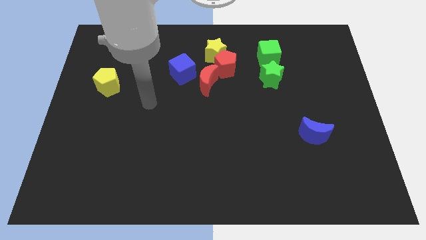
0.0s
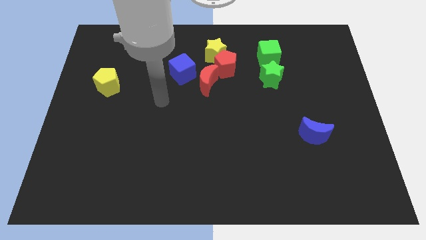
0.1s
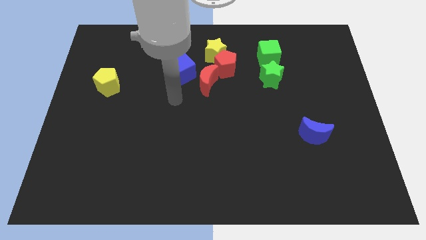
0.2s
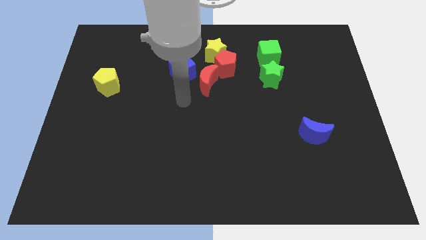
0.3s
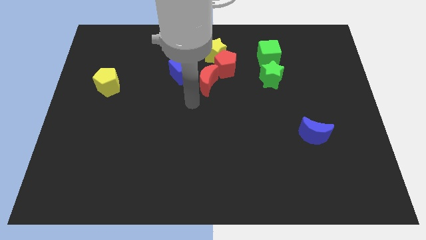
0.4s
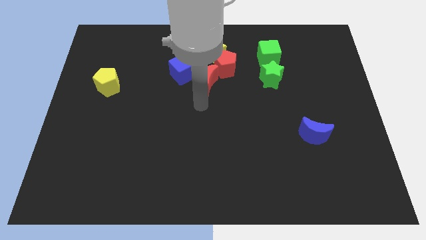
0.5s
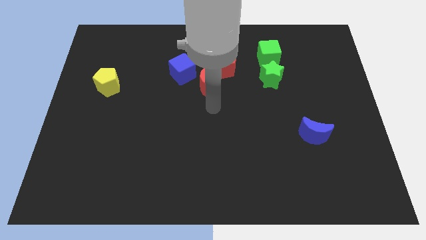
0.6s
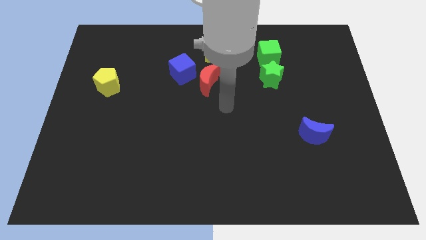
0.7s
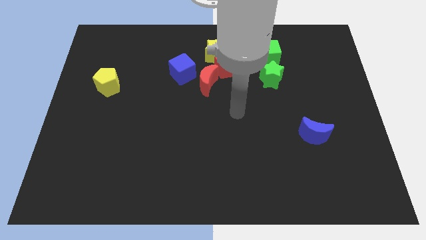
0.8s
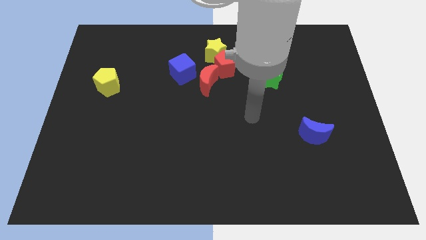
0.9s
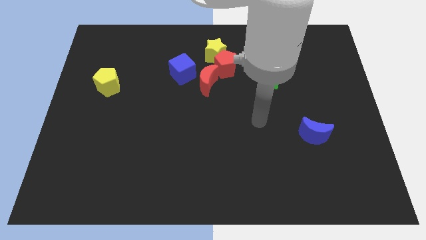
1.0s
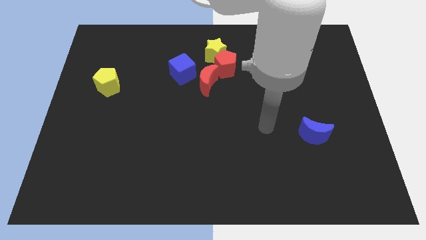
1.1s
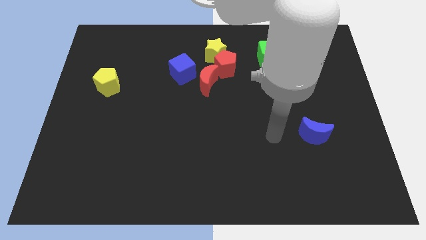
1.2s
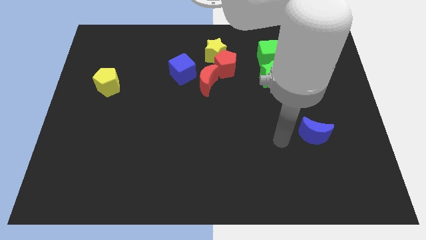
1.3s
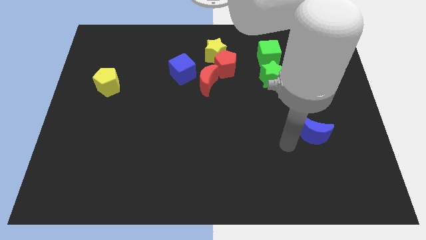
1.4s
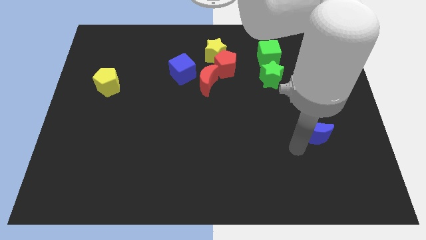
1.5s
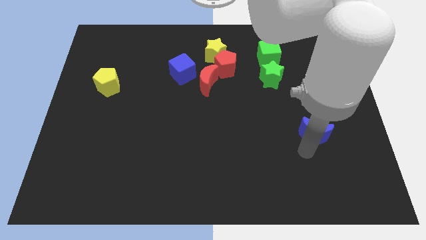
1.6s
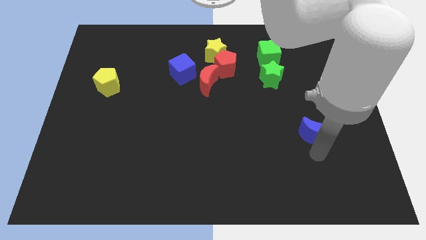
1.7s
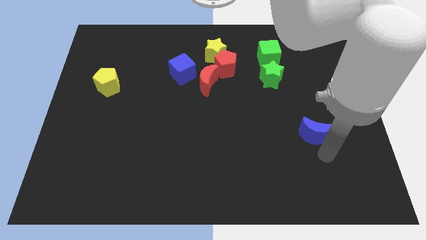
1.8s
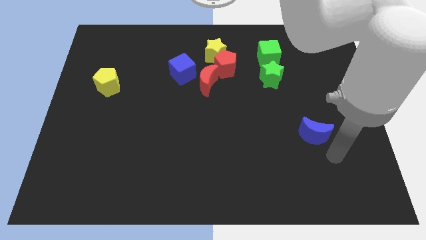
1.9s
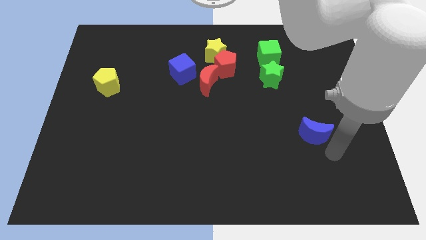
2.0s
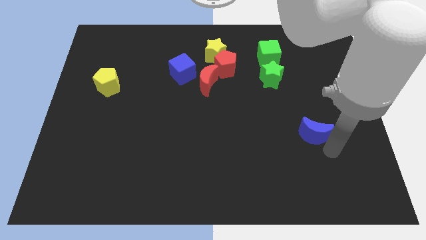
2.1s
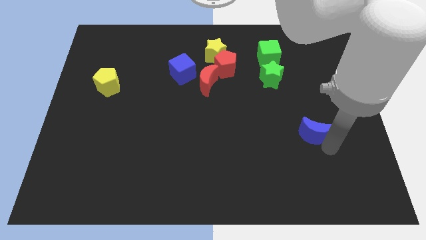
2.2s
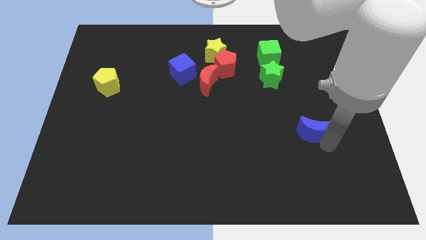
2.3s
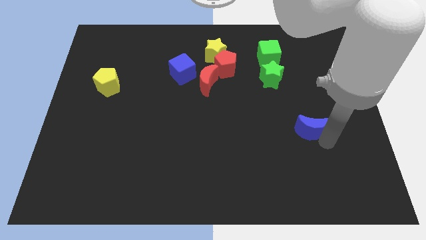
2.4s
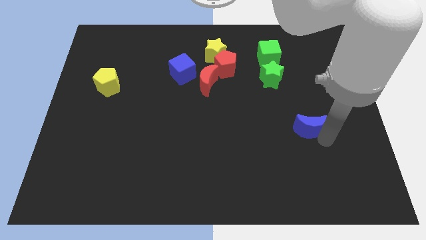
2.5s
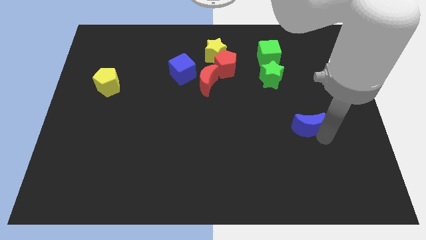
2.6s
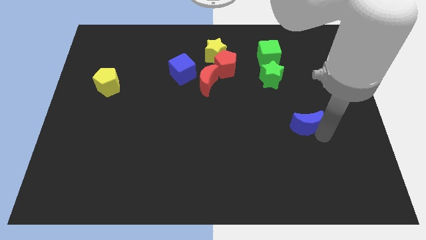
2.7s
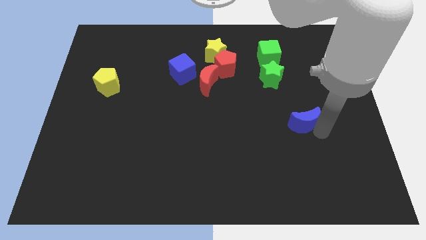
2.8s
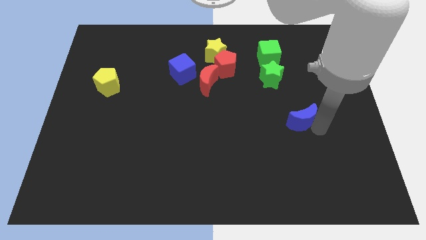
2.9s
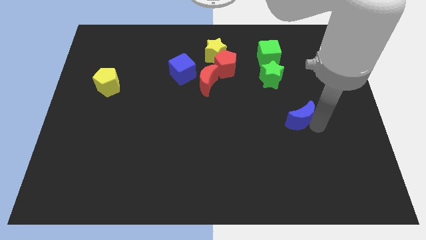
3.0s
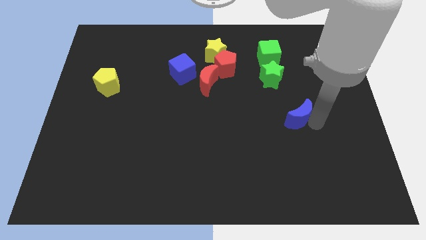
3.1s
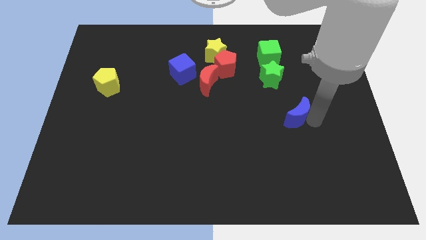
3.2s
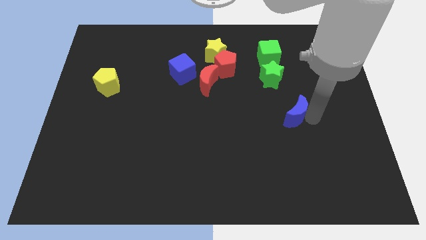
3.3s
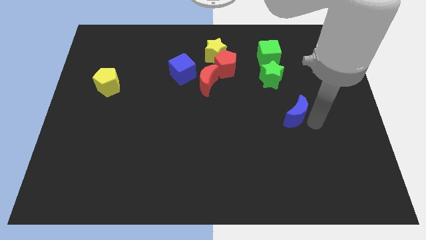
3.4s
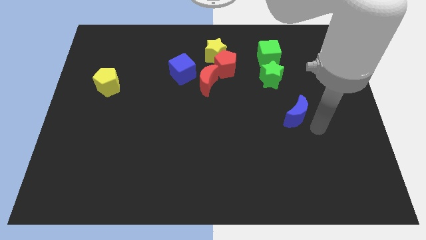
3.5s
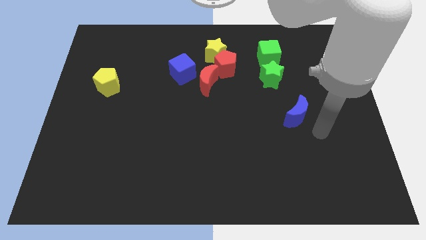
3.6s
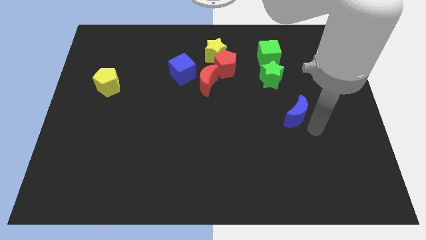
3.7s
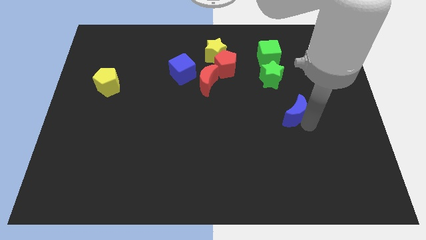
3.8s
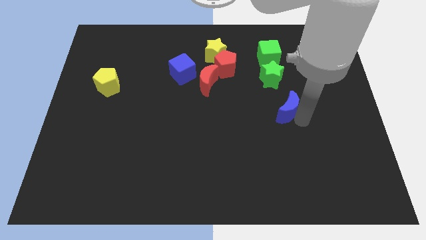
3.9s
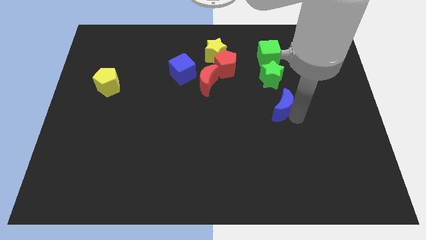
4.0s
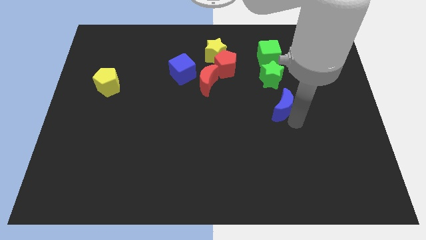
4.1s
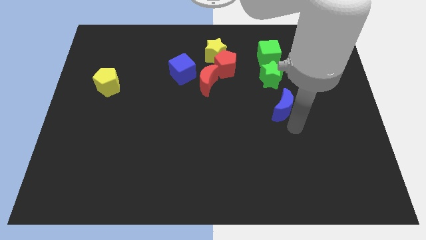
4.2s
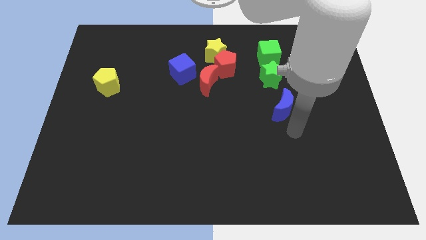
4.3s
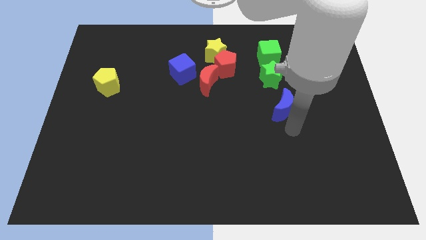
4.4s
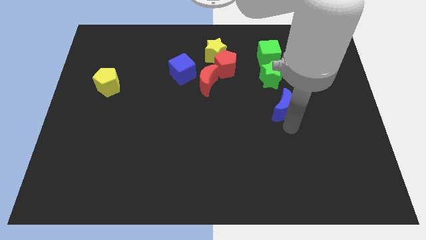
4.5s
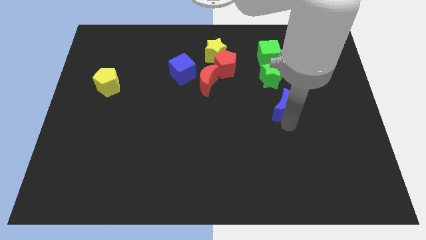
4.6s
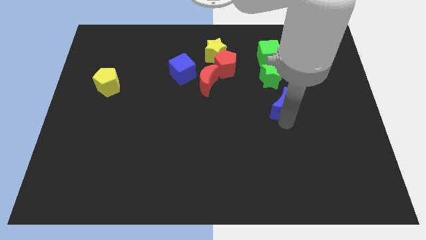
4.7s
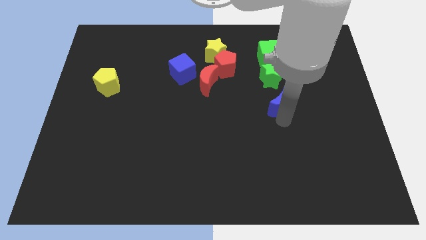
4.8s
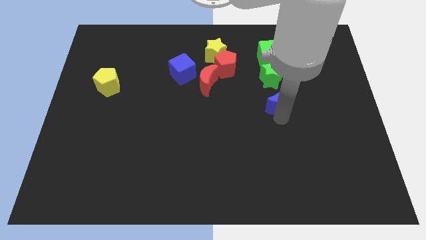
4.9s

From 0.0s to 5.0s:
put the blue moon below the green cube

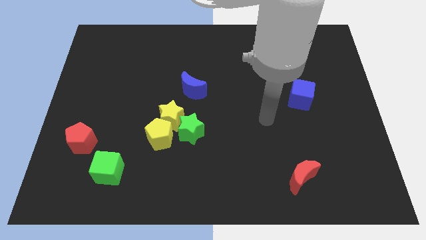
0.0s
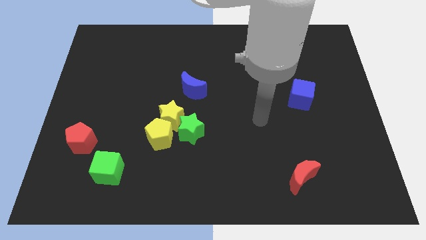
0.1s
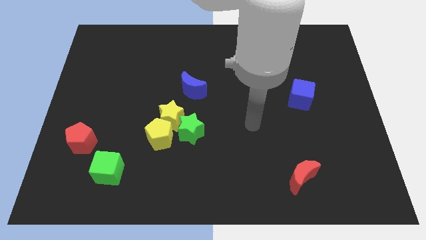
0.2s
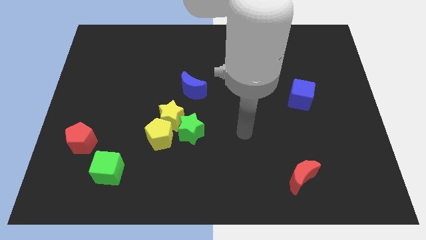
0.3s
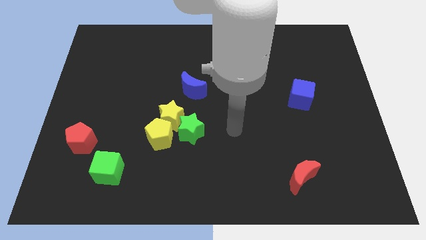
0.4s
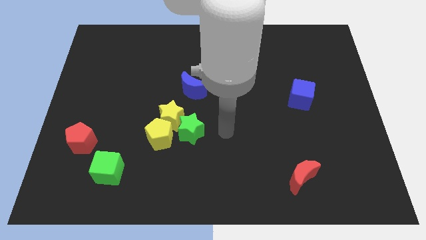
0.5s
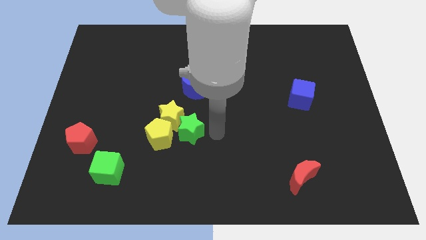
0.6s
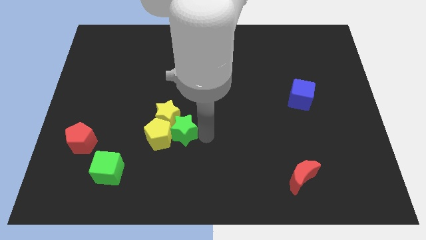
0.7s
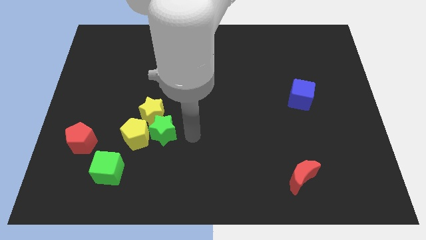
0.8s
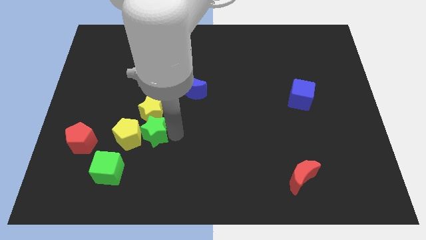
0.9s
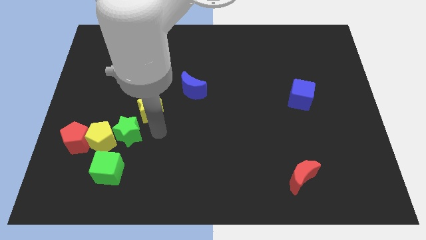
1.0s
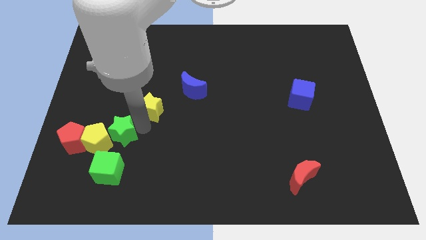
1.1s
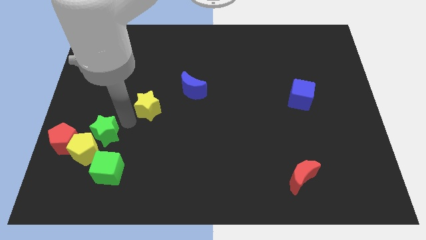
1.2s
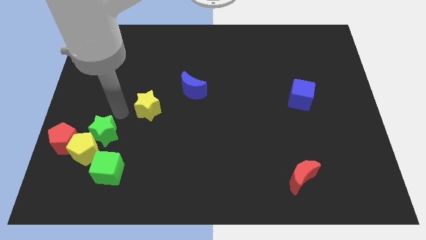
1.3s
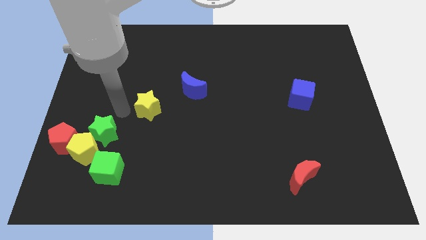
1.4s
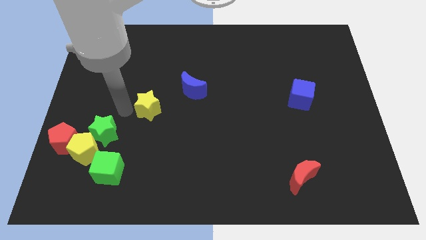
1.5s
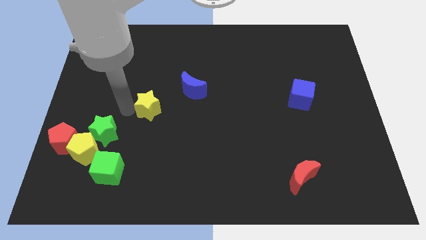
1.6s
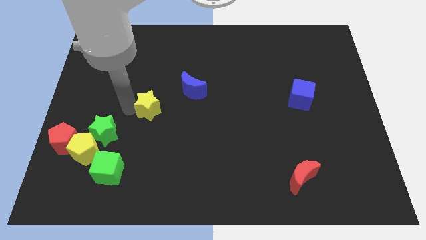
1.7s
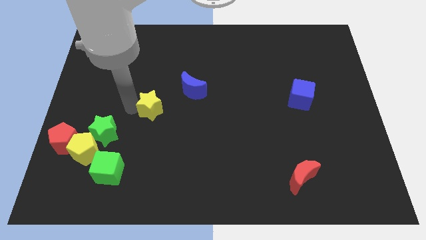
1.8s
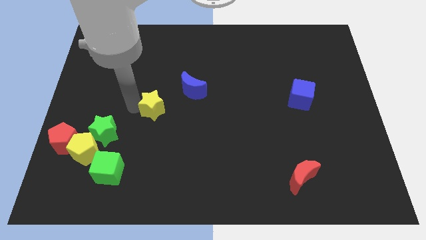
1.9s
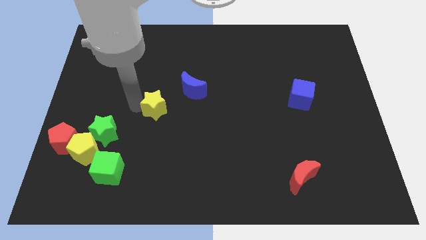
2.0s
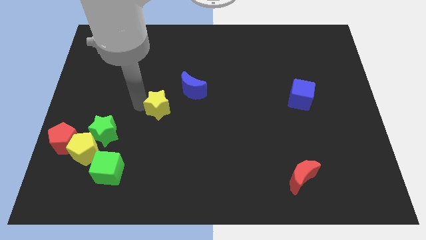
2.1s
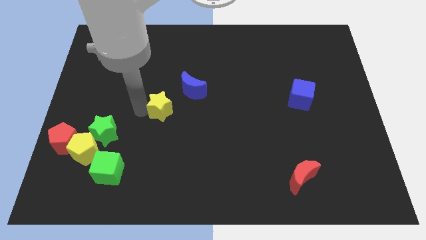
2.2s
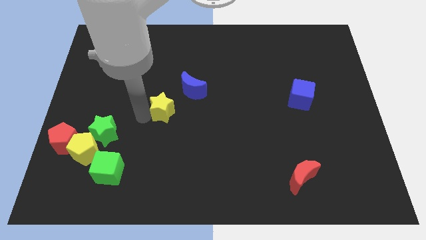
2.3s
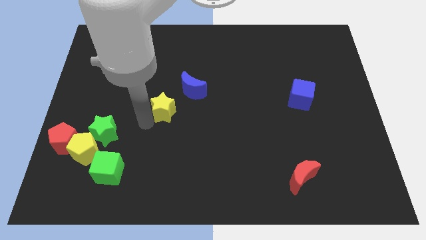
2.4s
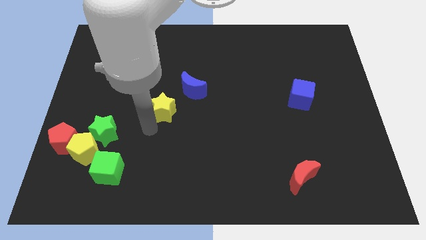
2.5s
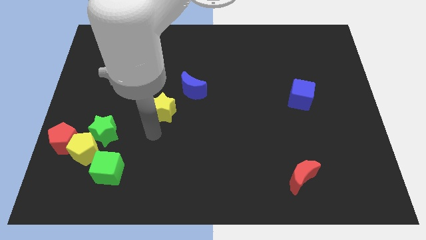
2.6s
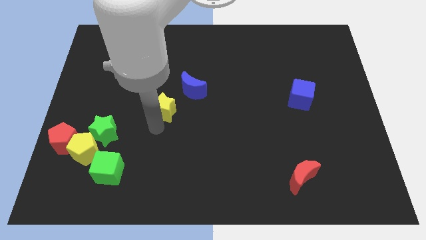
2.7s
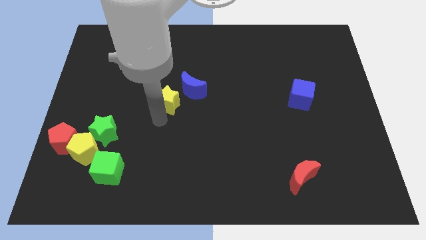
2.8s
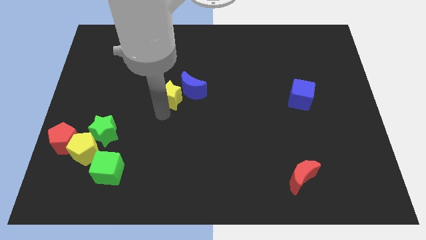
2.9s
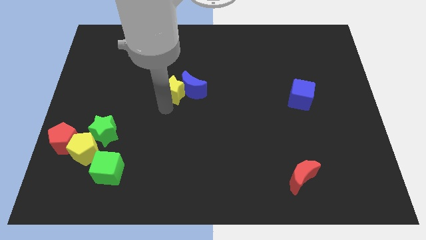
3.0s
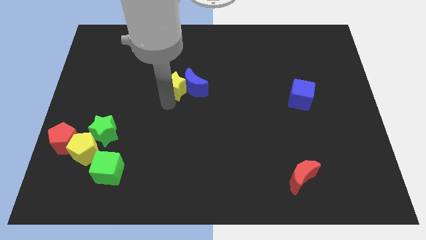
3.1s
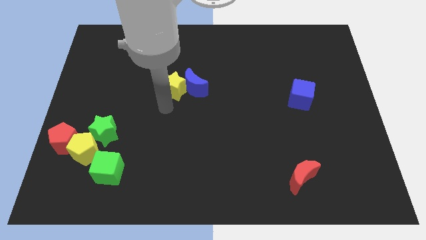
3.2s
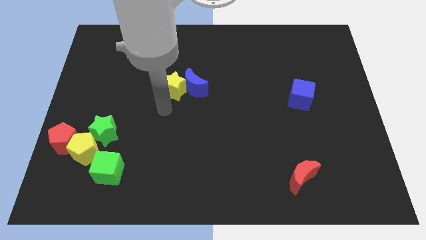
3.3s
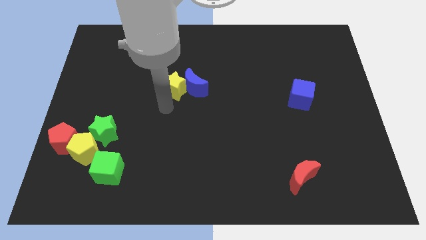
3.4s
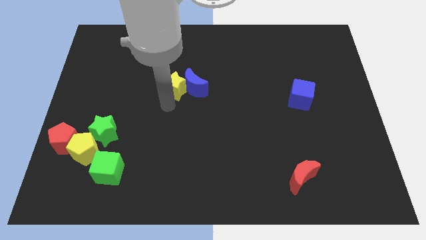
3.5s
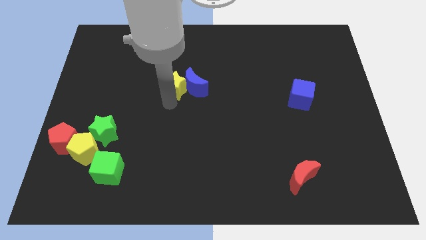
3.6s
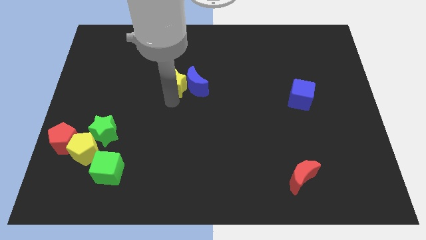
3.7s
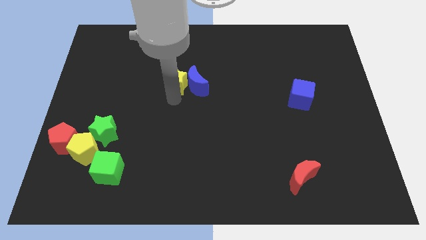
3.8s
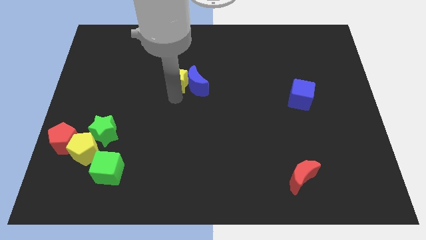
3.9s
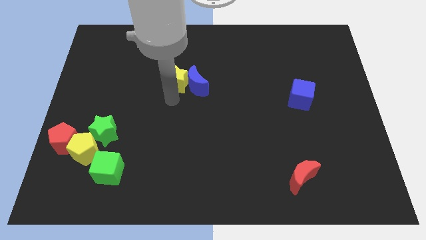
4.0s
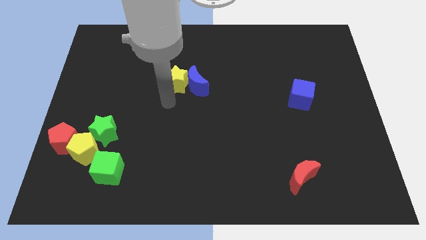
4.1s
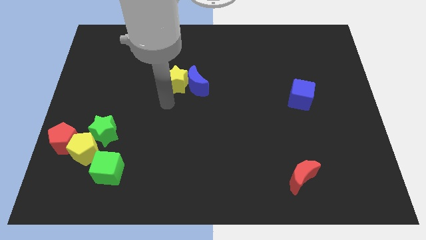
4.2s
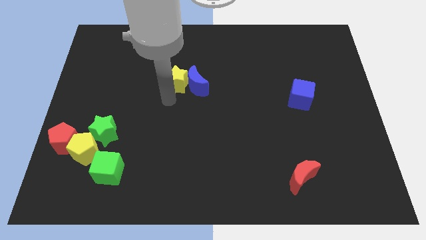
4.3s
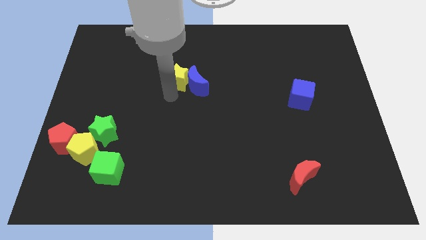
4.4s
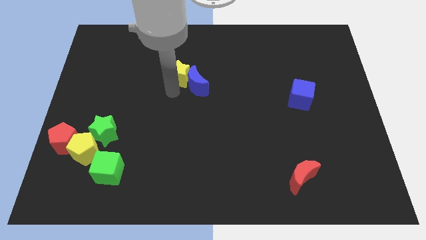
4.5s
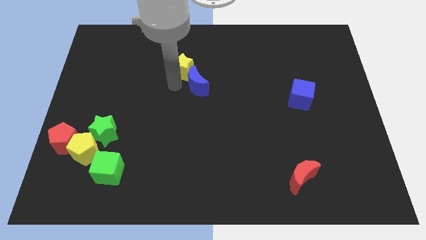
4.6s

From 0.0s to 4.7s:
put the yellow star to the top of the blue moon
